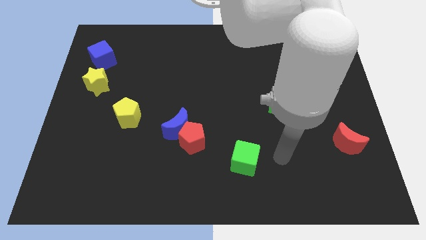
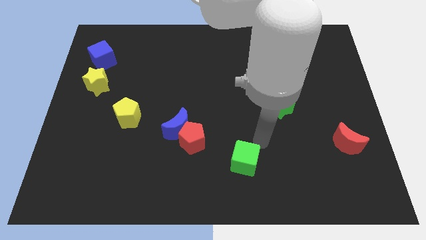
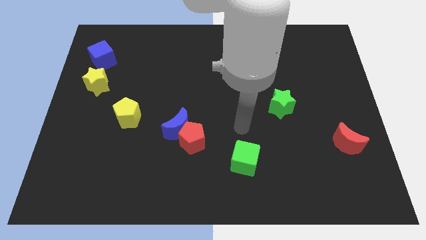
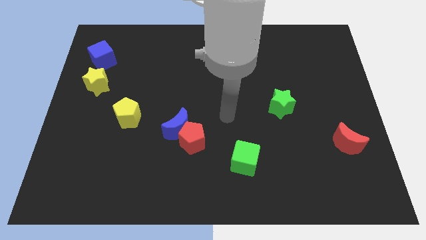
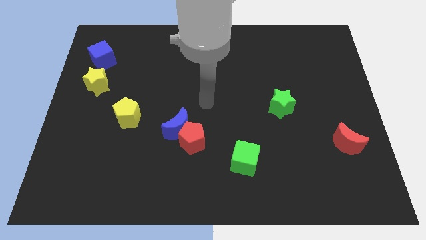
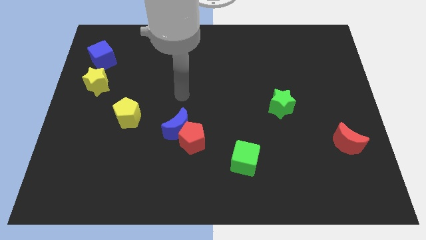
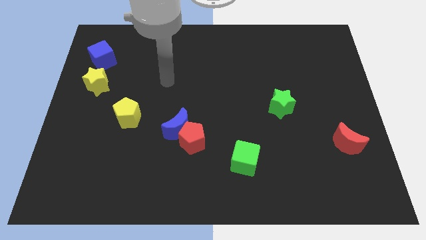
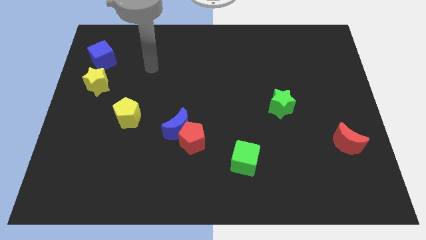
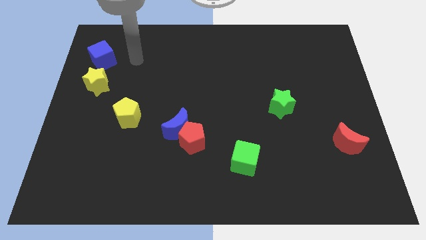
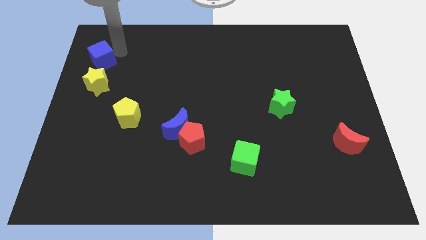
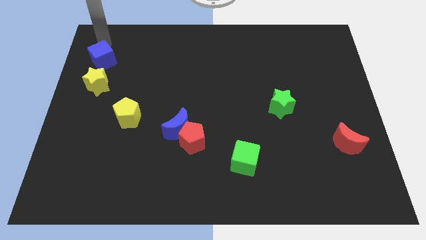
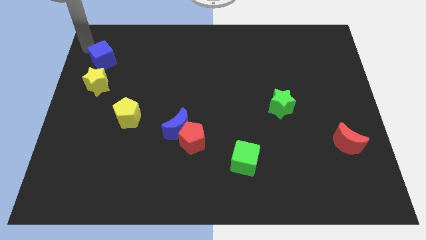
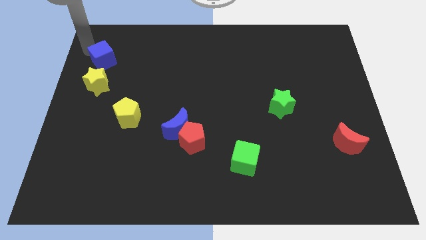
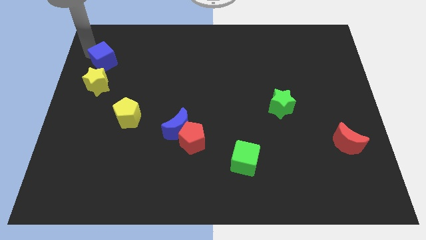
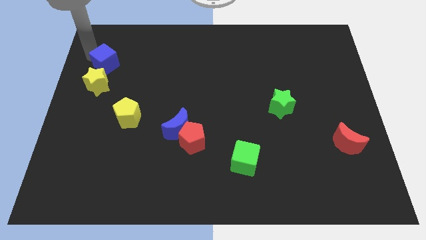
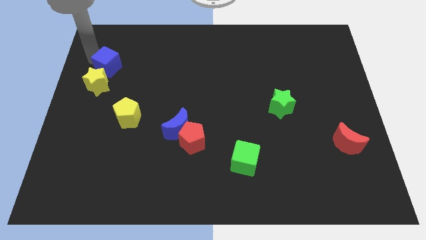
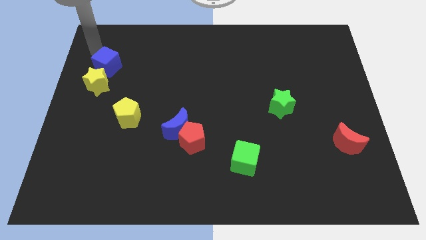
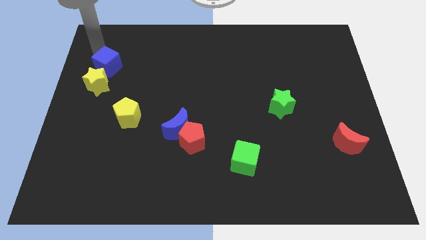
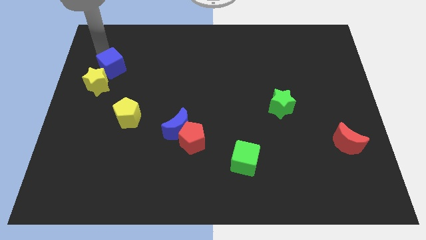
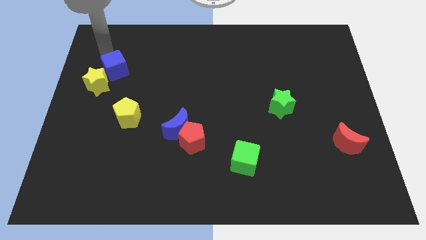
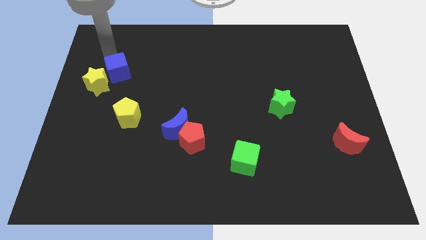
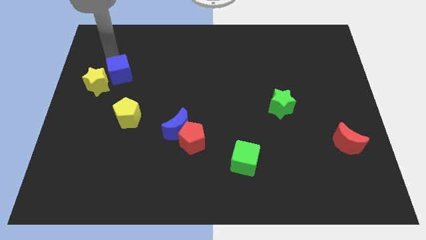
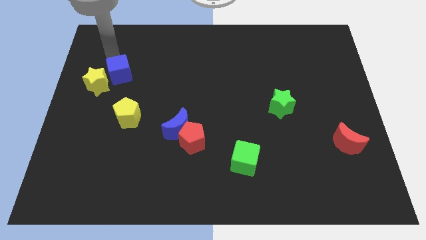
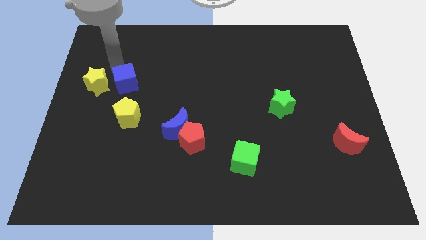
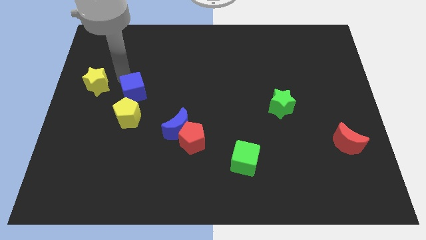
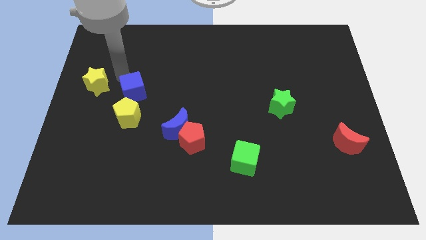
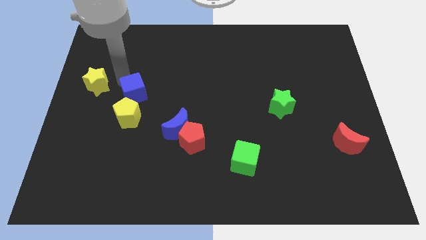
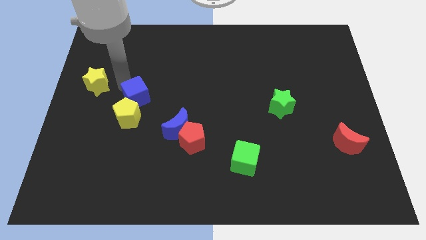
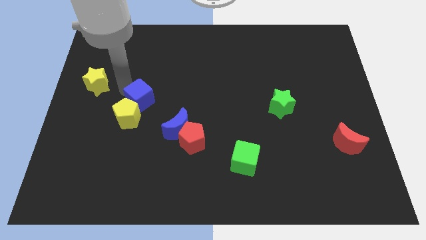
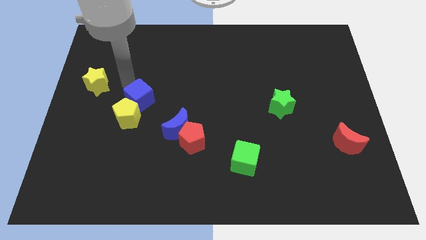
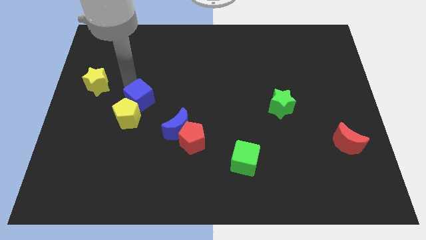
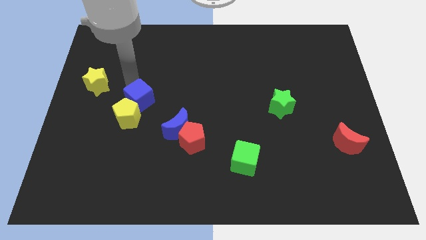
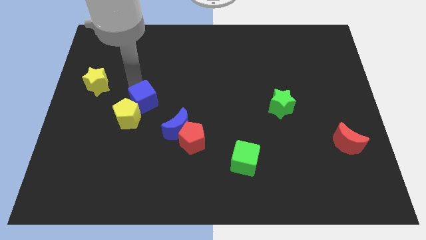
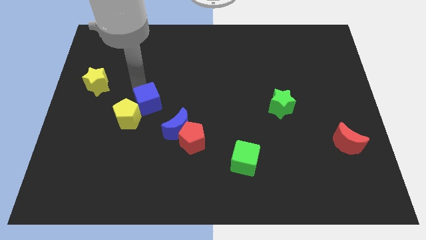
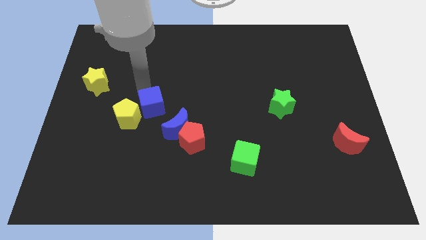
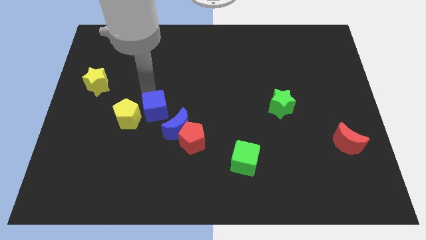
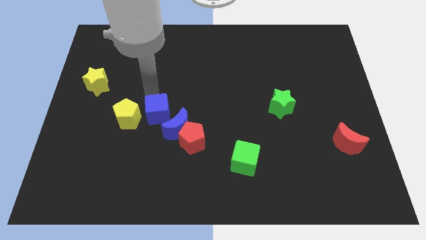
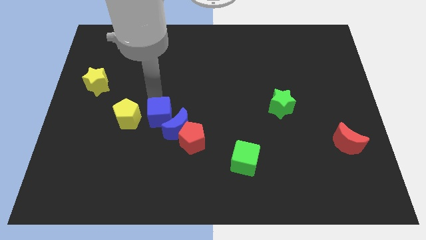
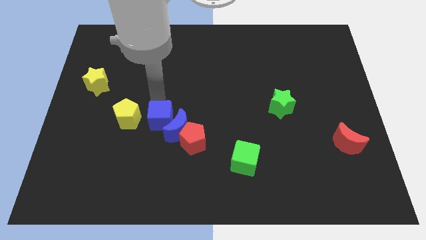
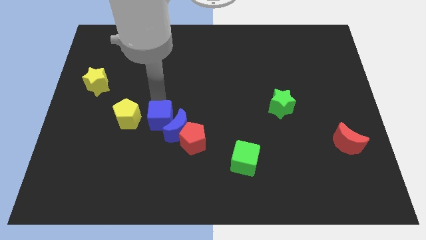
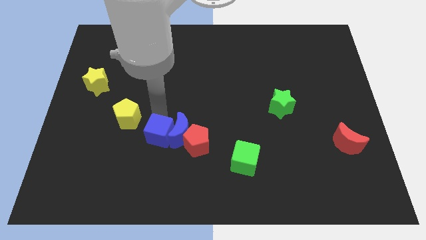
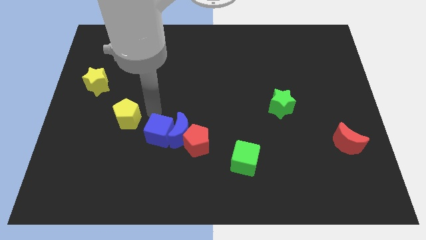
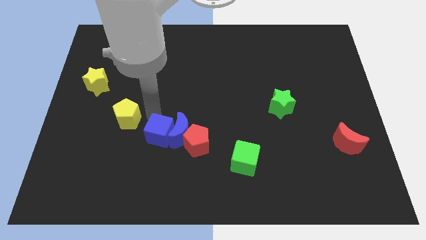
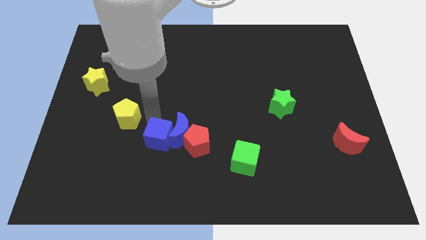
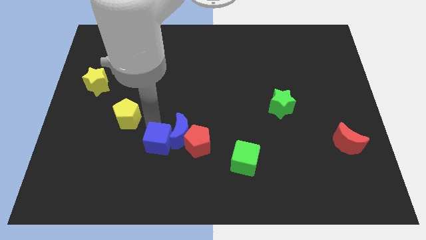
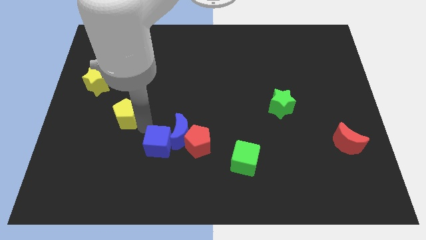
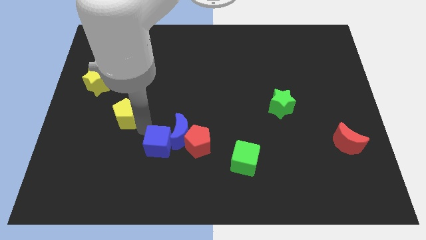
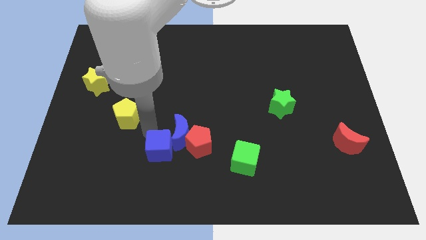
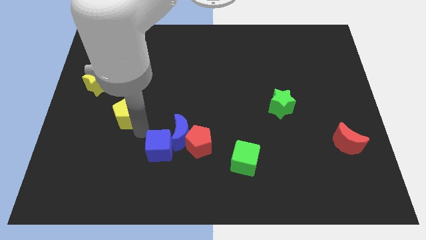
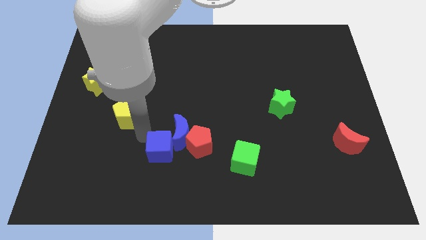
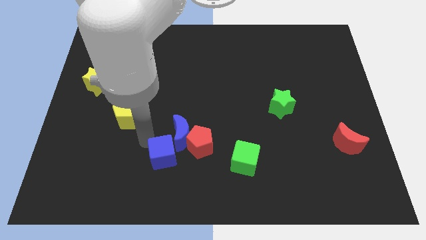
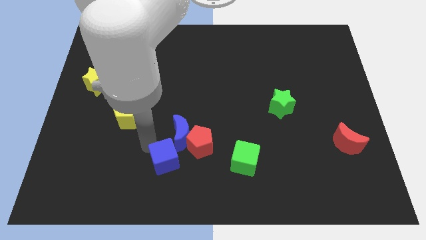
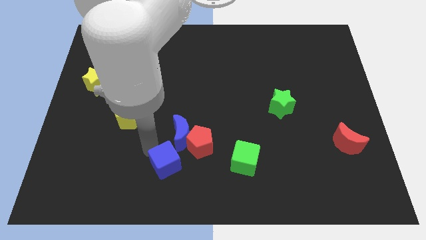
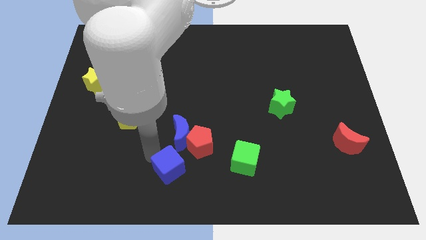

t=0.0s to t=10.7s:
move the blue cube to the bottom side
